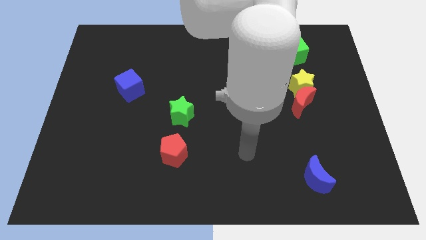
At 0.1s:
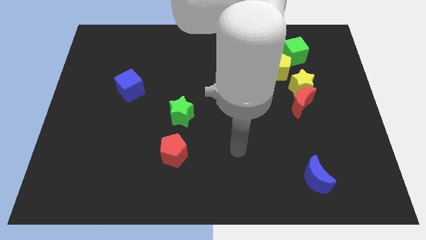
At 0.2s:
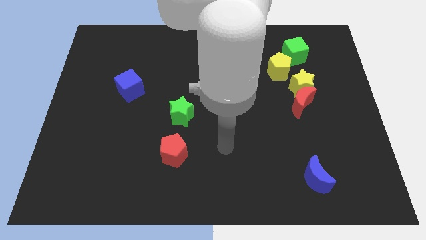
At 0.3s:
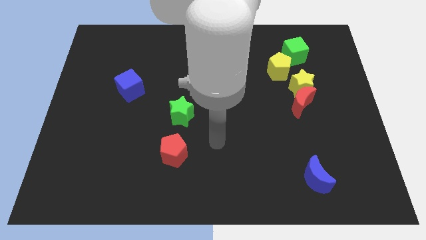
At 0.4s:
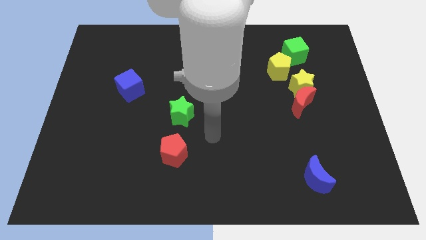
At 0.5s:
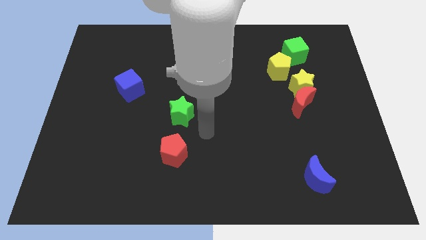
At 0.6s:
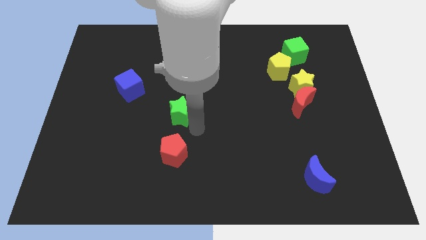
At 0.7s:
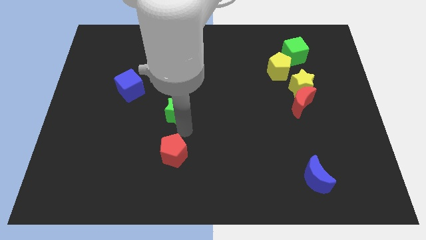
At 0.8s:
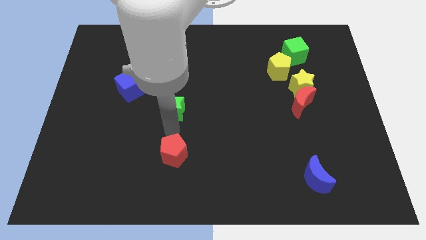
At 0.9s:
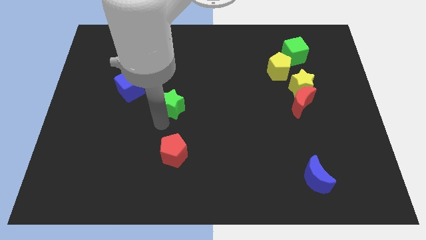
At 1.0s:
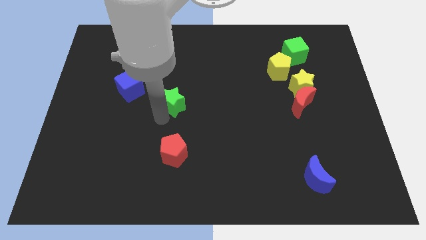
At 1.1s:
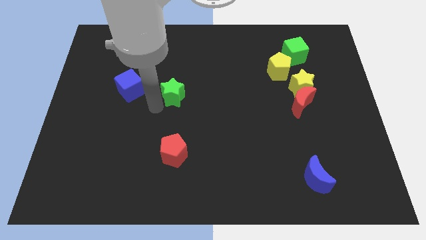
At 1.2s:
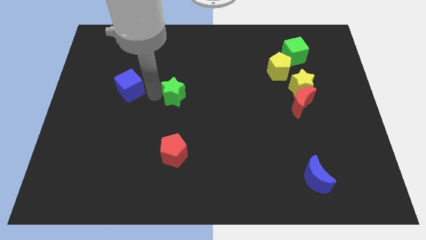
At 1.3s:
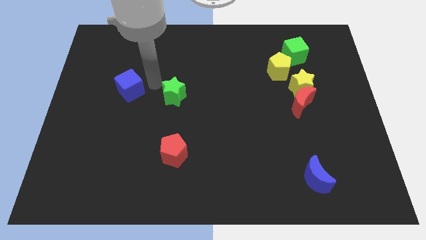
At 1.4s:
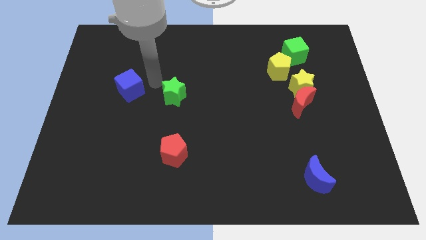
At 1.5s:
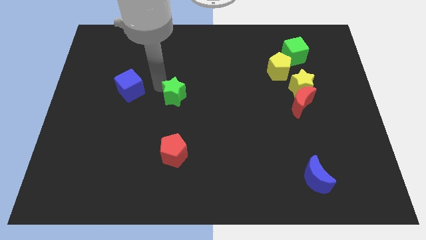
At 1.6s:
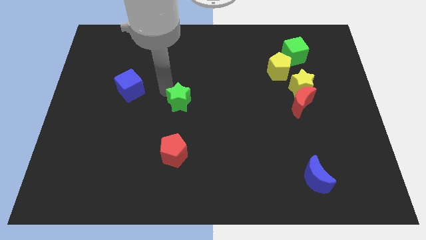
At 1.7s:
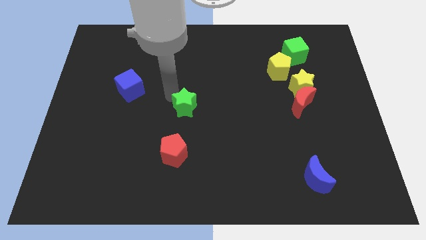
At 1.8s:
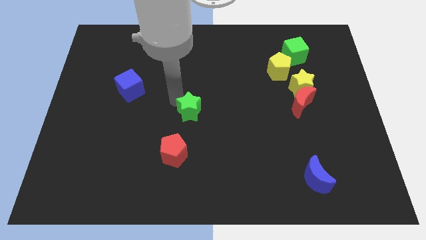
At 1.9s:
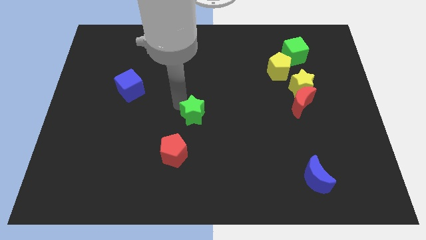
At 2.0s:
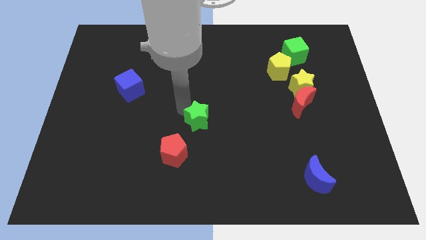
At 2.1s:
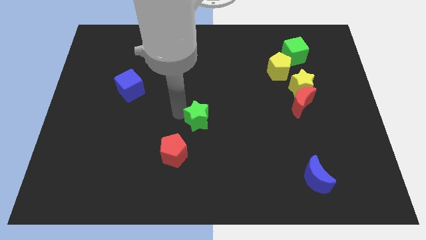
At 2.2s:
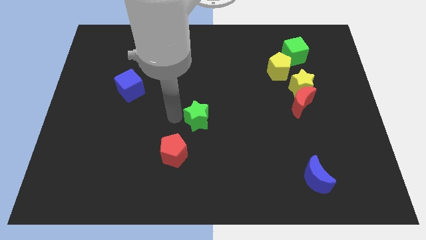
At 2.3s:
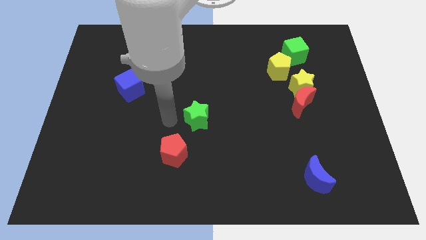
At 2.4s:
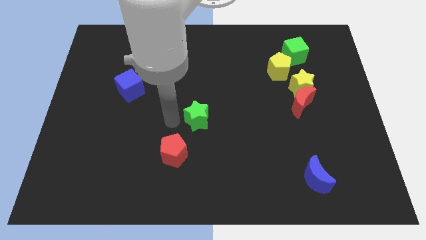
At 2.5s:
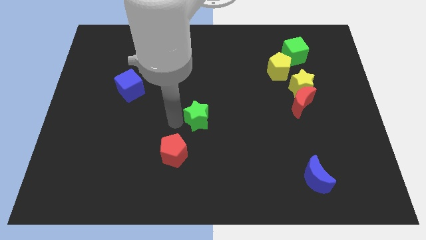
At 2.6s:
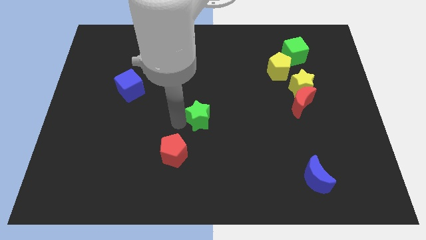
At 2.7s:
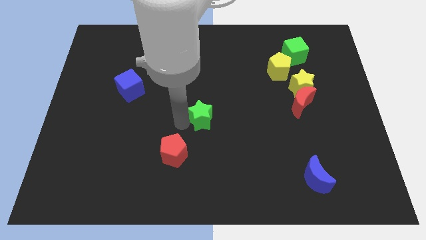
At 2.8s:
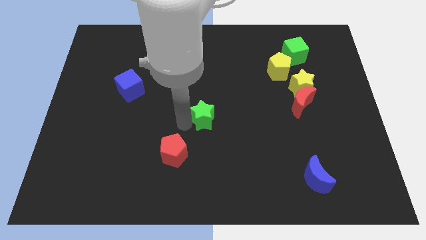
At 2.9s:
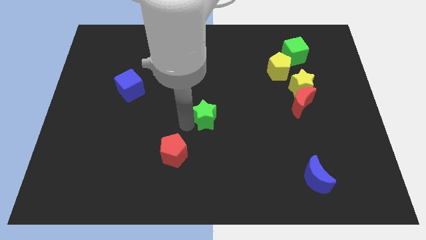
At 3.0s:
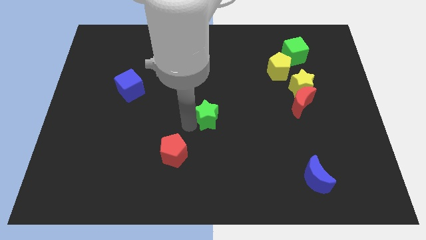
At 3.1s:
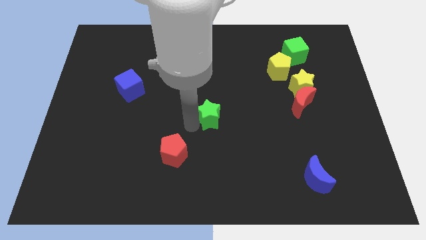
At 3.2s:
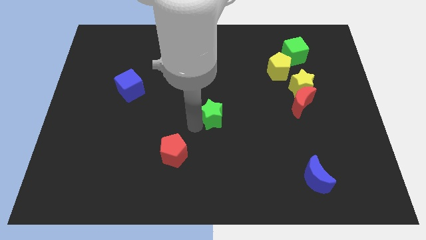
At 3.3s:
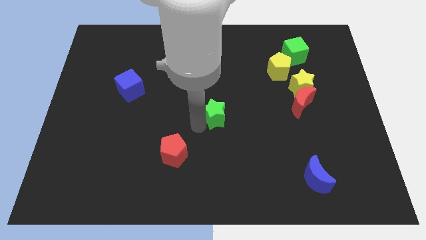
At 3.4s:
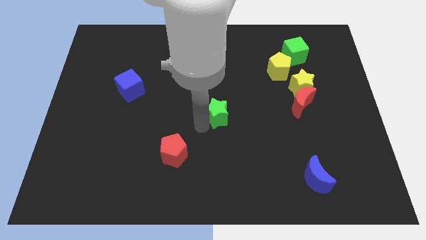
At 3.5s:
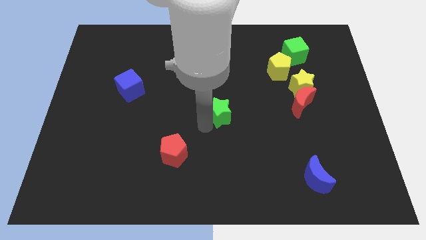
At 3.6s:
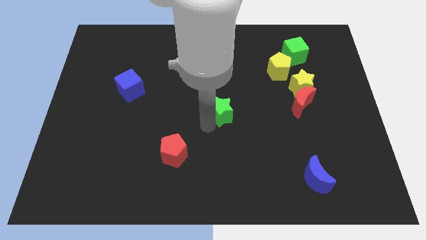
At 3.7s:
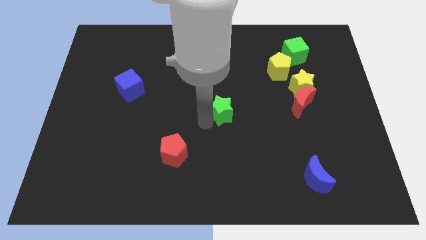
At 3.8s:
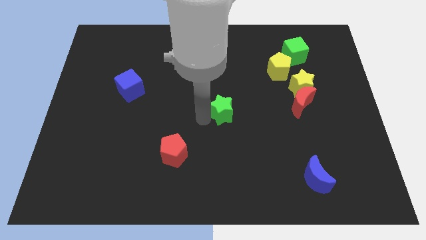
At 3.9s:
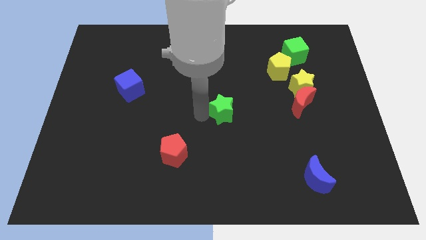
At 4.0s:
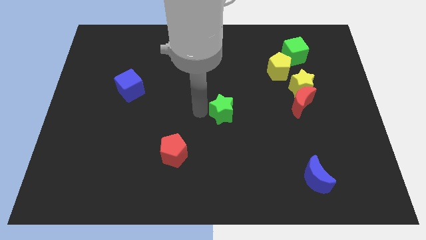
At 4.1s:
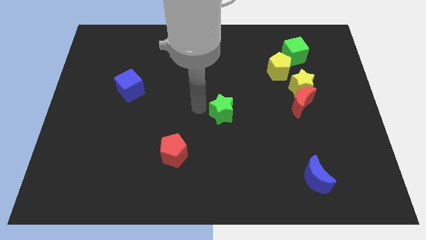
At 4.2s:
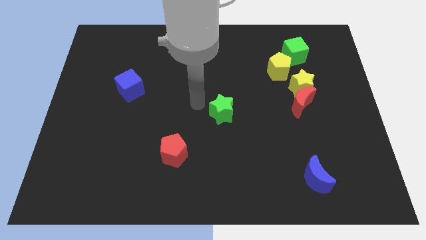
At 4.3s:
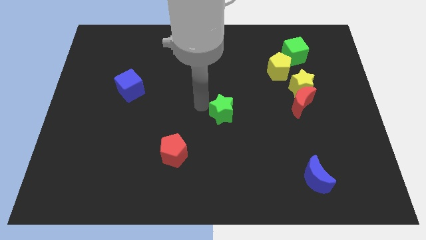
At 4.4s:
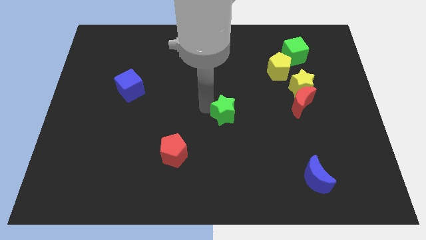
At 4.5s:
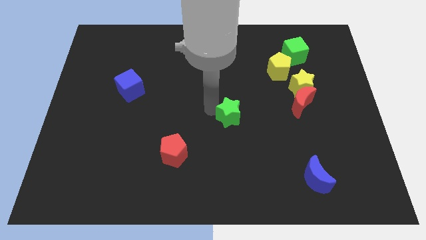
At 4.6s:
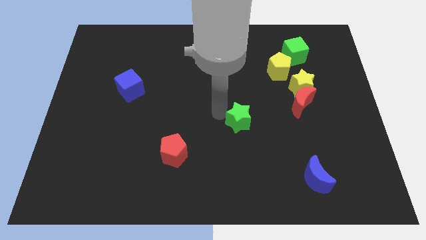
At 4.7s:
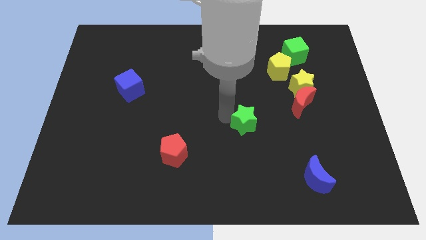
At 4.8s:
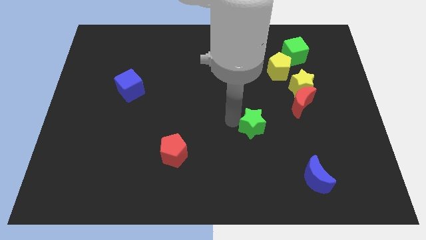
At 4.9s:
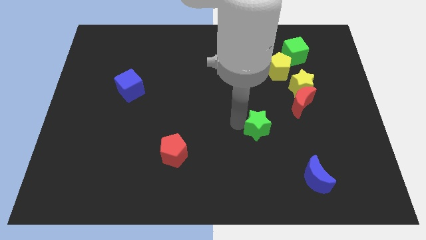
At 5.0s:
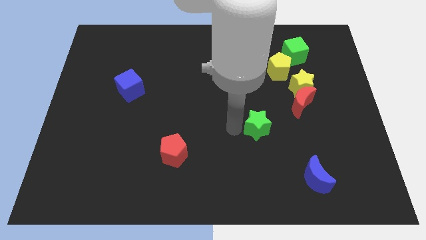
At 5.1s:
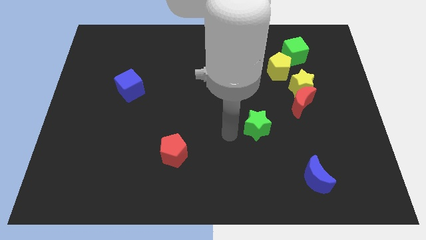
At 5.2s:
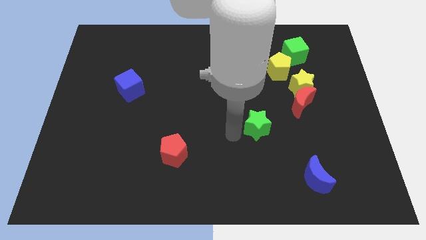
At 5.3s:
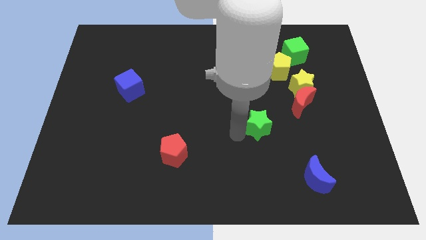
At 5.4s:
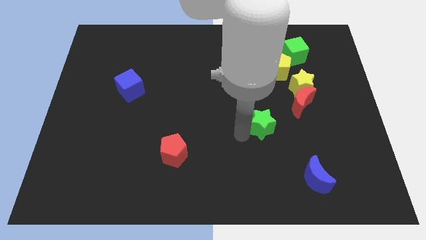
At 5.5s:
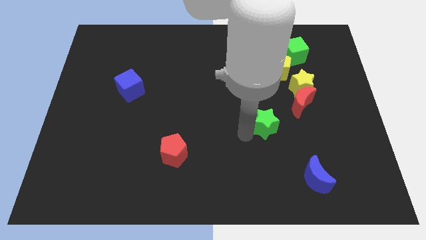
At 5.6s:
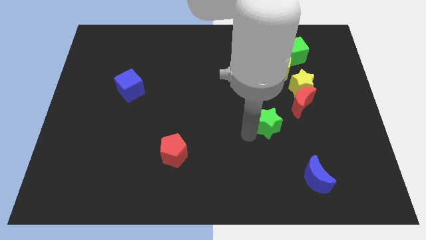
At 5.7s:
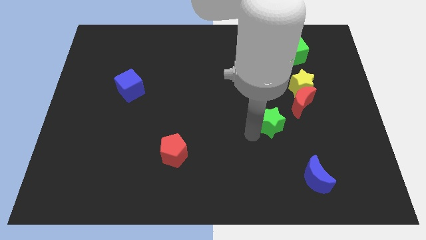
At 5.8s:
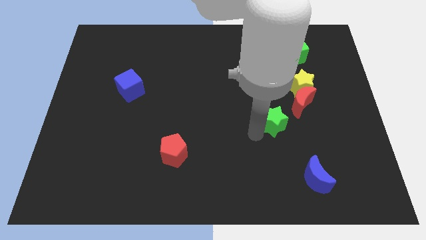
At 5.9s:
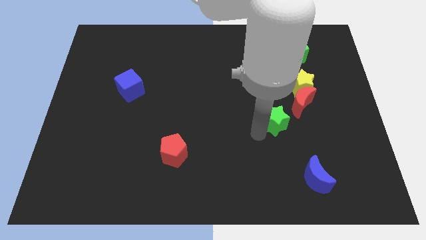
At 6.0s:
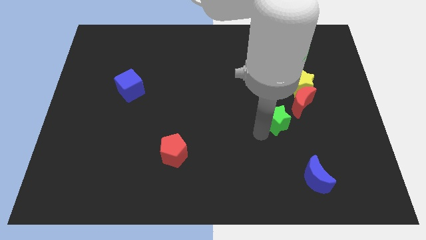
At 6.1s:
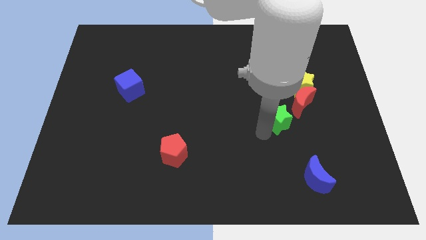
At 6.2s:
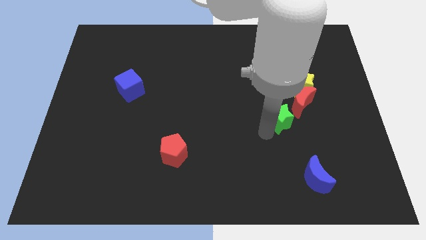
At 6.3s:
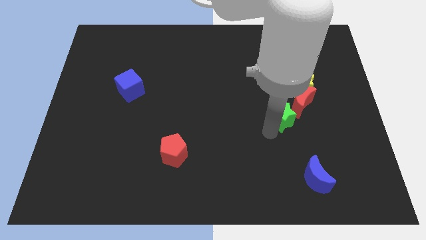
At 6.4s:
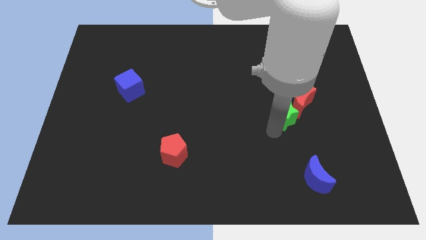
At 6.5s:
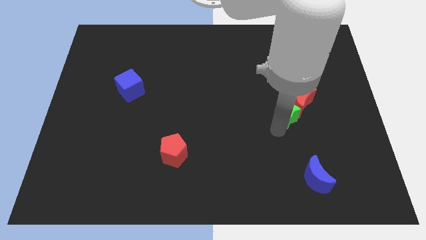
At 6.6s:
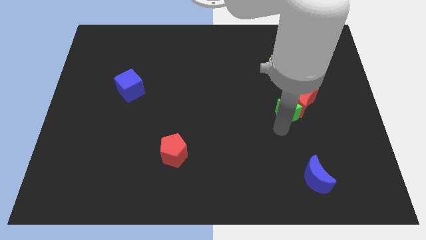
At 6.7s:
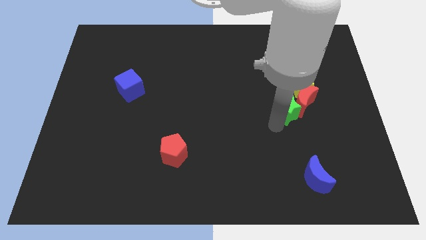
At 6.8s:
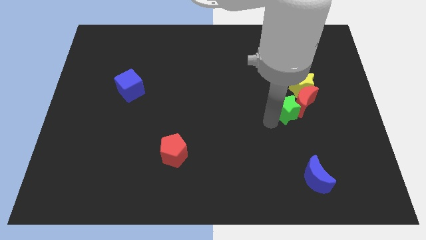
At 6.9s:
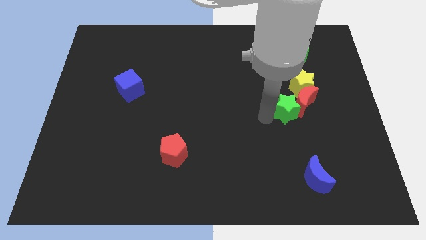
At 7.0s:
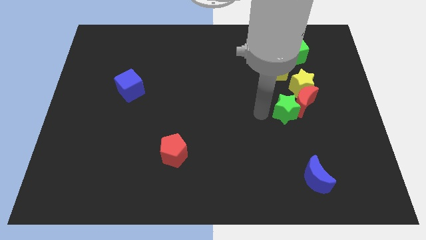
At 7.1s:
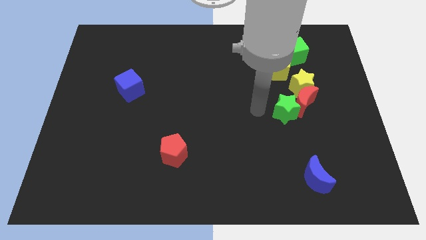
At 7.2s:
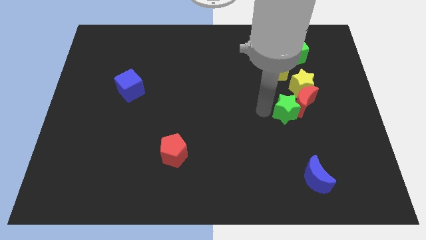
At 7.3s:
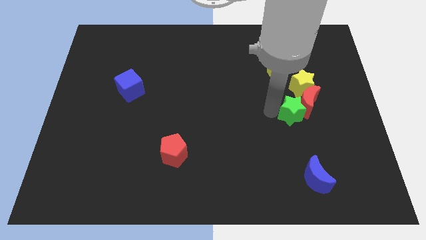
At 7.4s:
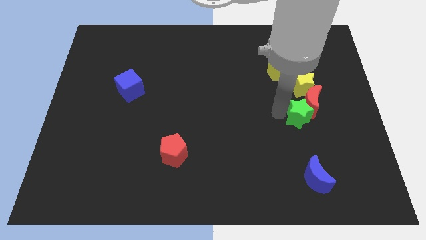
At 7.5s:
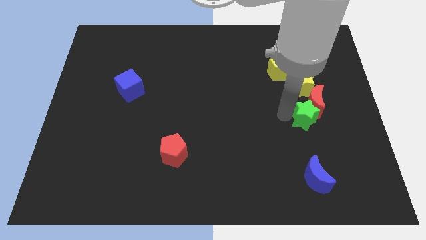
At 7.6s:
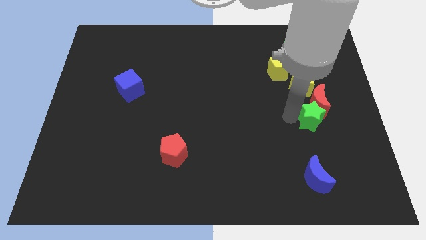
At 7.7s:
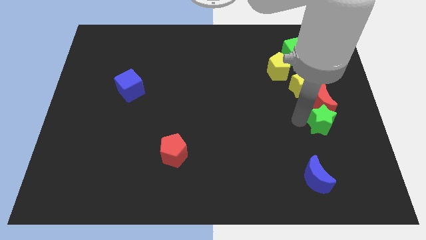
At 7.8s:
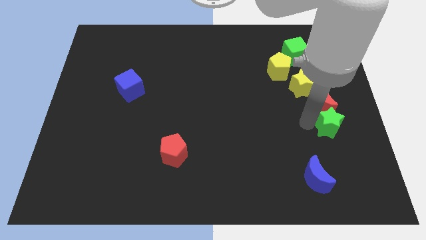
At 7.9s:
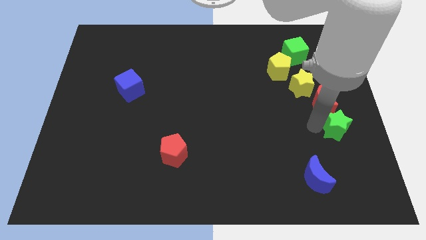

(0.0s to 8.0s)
put the green star to the center right
